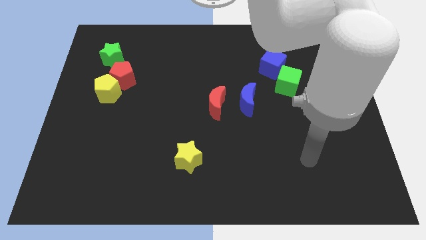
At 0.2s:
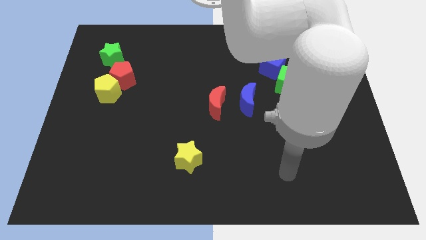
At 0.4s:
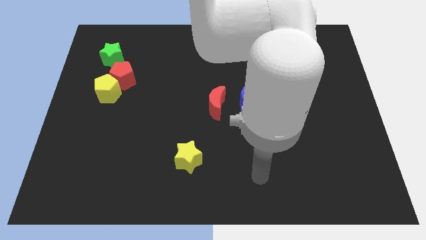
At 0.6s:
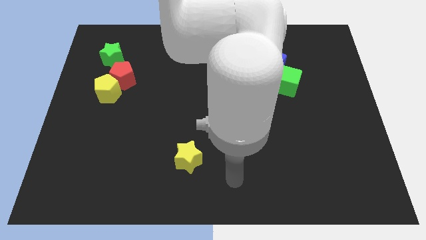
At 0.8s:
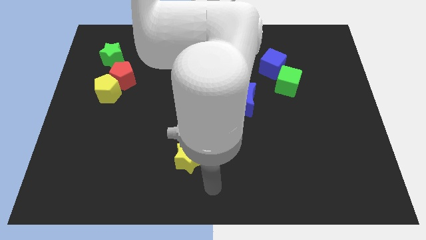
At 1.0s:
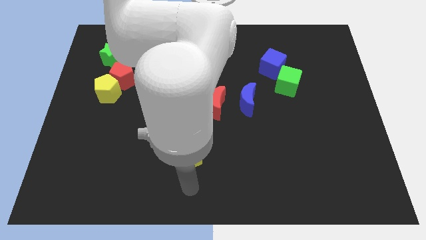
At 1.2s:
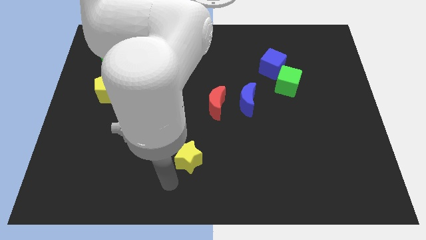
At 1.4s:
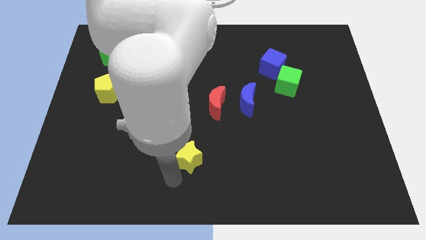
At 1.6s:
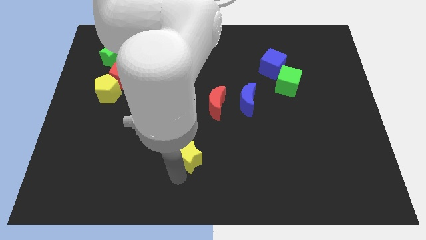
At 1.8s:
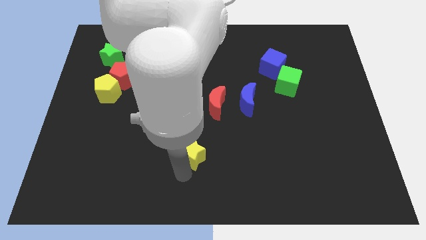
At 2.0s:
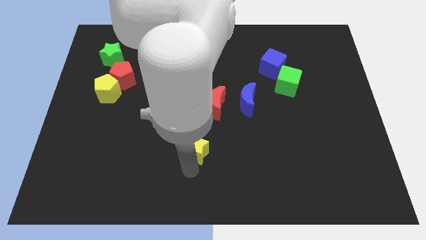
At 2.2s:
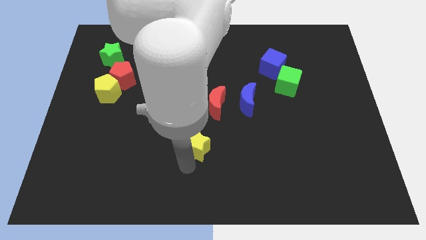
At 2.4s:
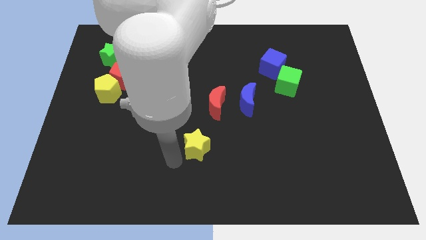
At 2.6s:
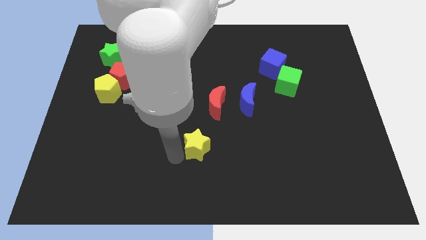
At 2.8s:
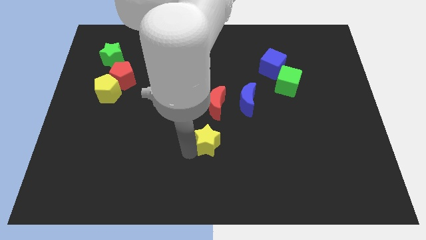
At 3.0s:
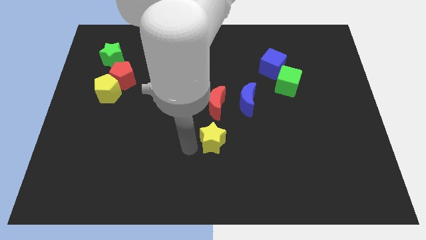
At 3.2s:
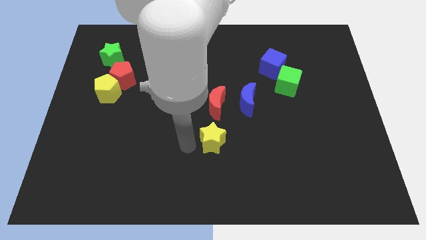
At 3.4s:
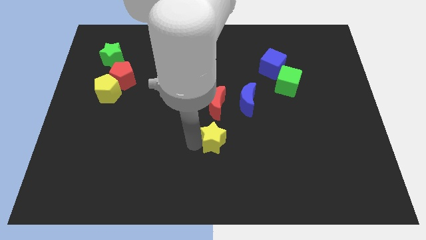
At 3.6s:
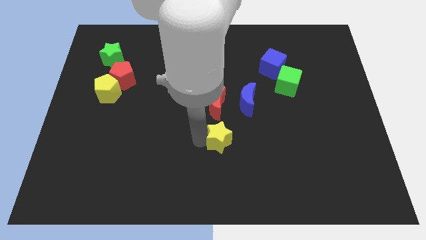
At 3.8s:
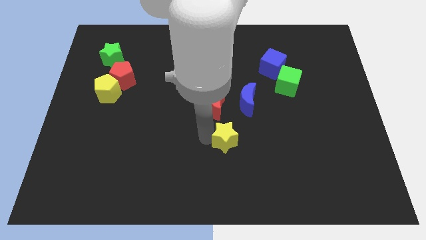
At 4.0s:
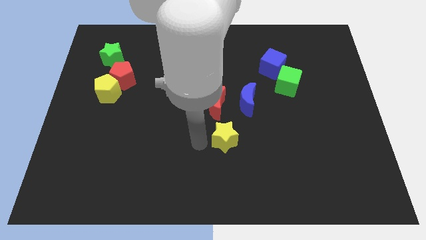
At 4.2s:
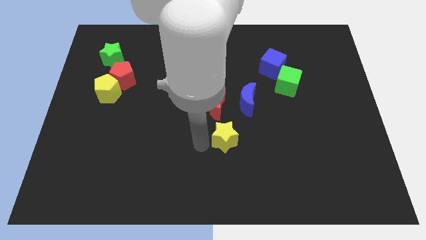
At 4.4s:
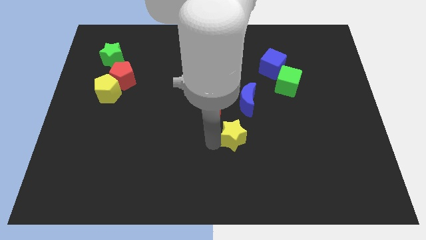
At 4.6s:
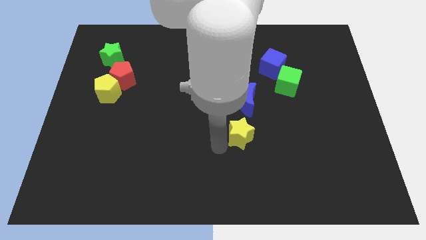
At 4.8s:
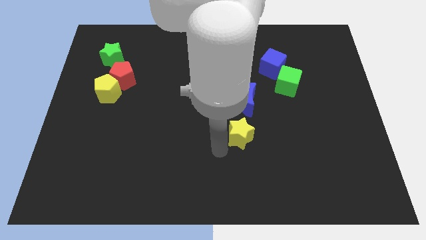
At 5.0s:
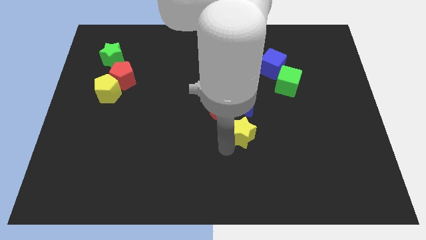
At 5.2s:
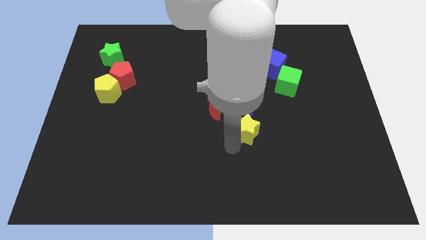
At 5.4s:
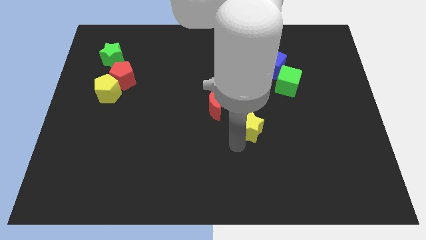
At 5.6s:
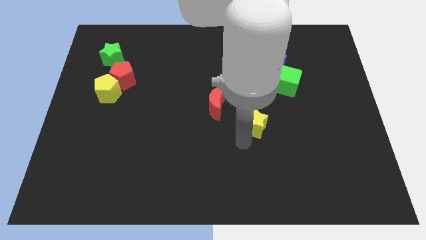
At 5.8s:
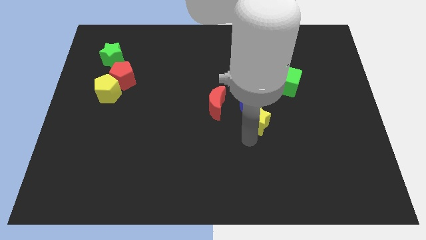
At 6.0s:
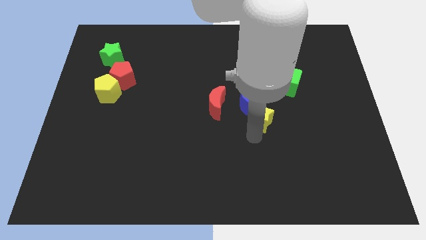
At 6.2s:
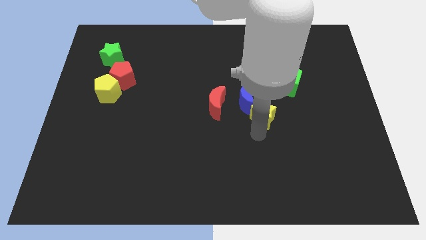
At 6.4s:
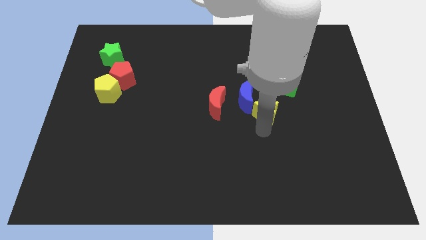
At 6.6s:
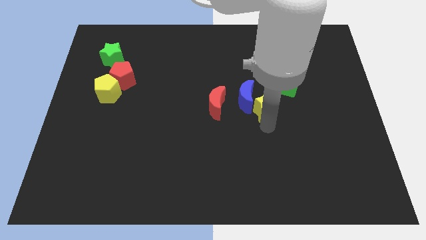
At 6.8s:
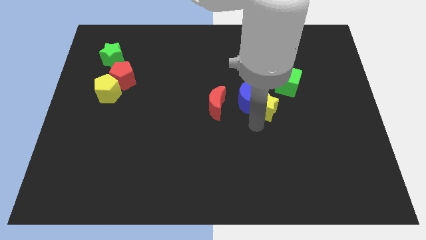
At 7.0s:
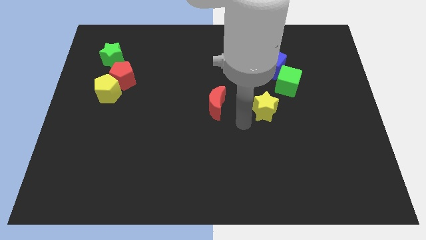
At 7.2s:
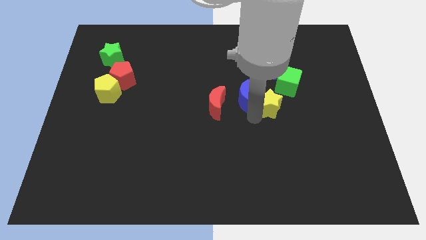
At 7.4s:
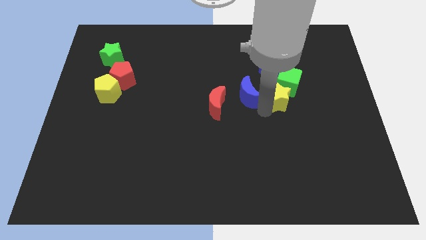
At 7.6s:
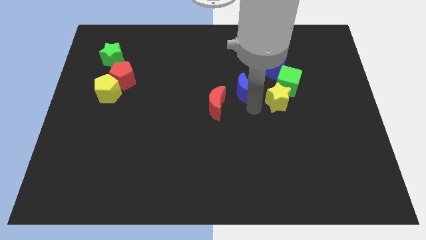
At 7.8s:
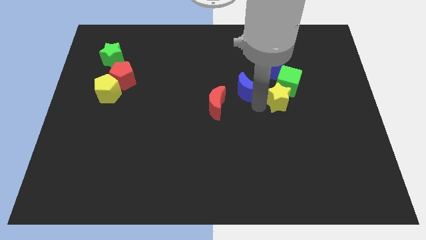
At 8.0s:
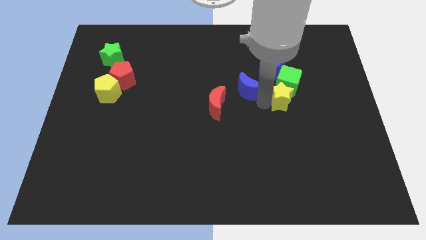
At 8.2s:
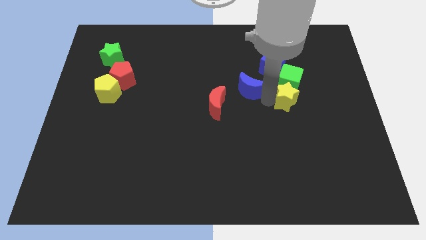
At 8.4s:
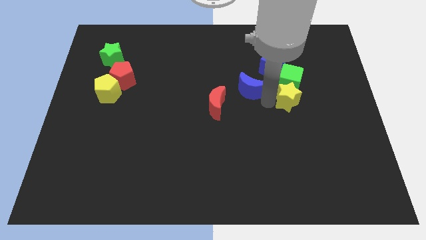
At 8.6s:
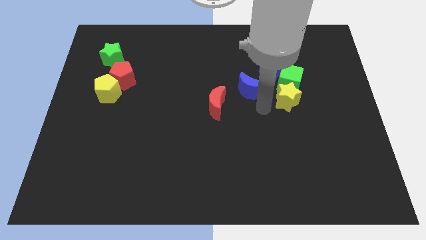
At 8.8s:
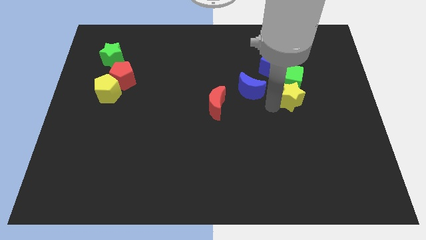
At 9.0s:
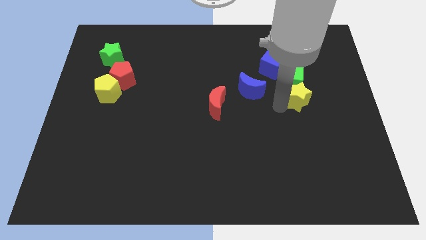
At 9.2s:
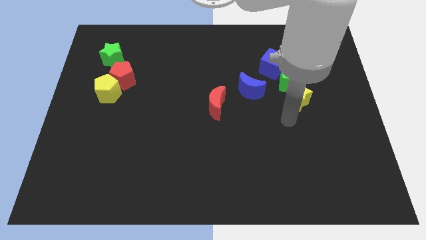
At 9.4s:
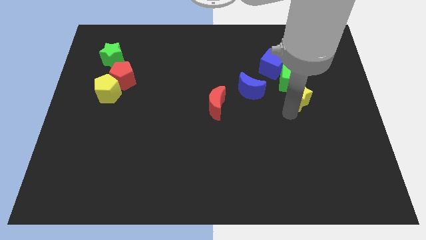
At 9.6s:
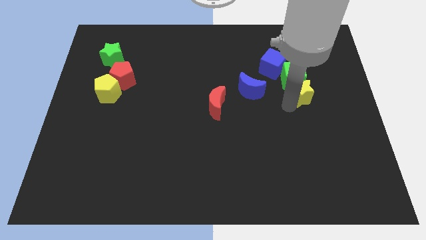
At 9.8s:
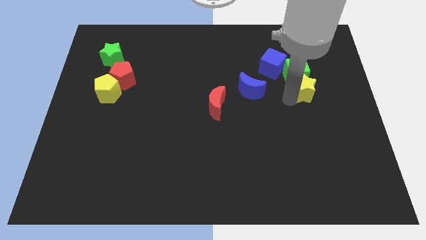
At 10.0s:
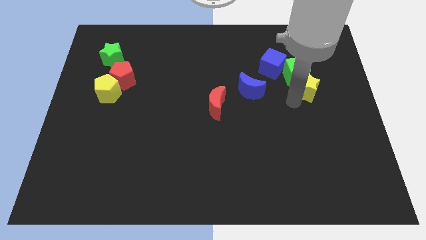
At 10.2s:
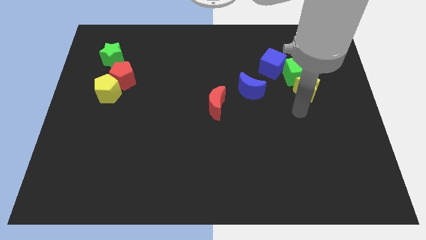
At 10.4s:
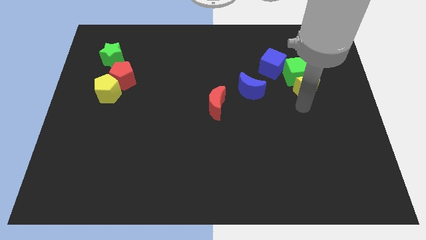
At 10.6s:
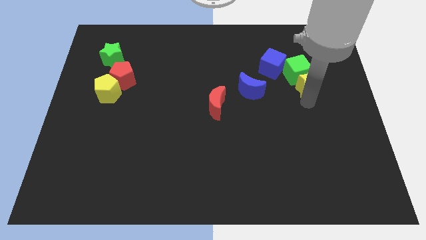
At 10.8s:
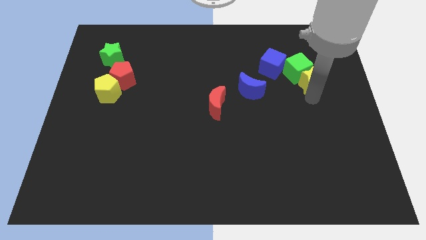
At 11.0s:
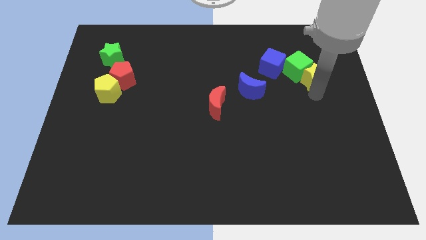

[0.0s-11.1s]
put the yellow star just right of the blue cube

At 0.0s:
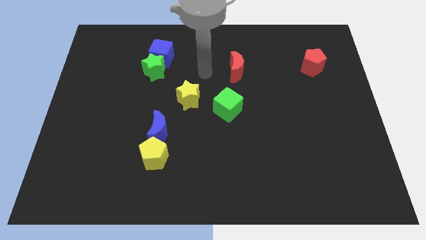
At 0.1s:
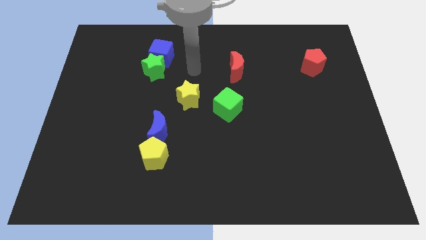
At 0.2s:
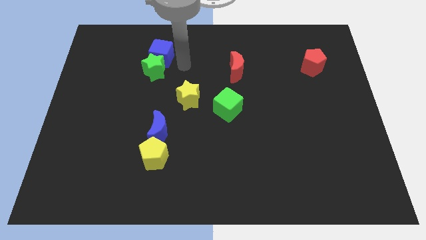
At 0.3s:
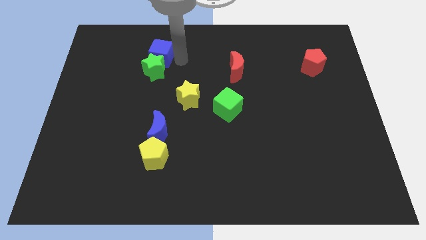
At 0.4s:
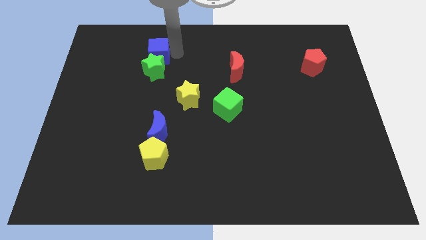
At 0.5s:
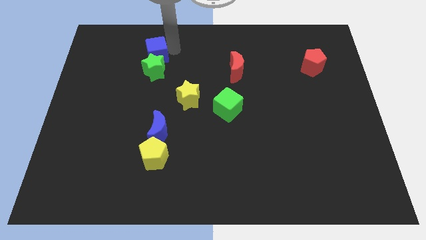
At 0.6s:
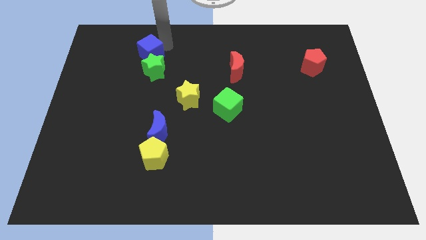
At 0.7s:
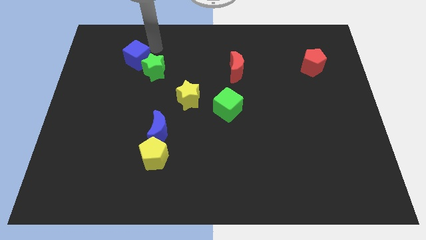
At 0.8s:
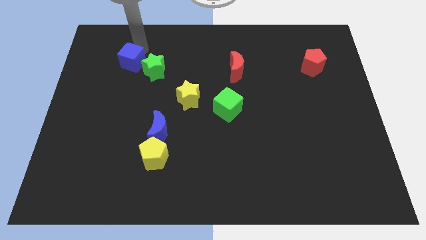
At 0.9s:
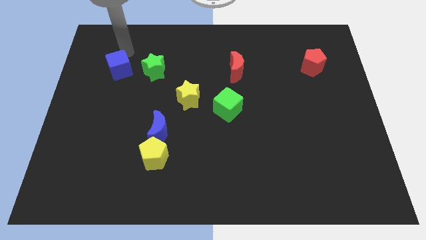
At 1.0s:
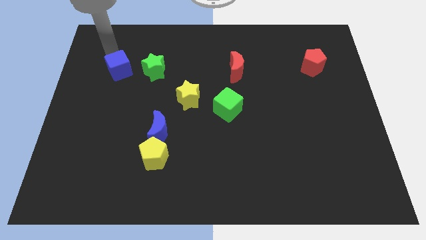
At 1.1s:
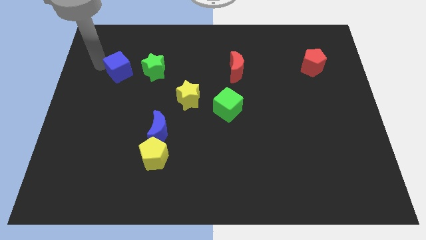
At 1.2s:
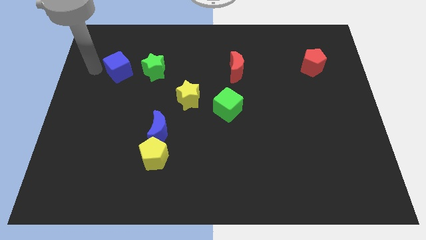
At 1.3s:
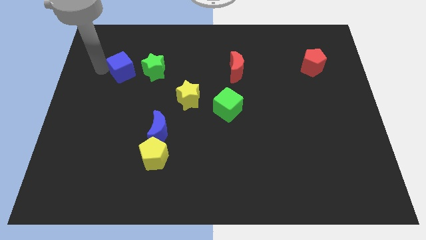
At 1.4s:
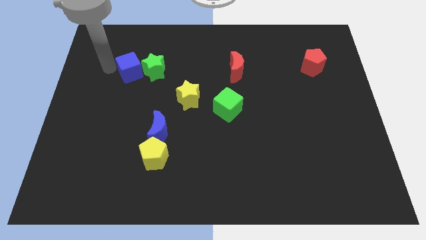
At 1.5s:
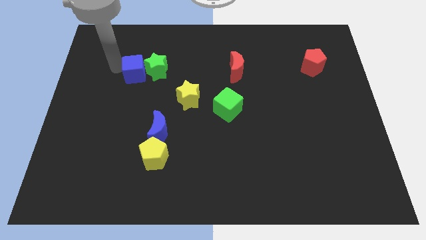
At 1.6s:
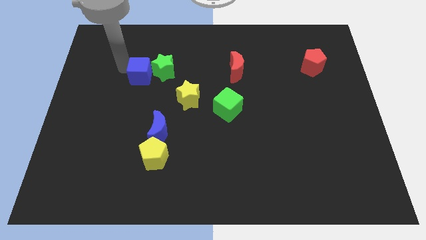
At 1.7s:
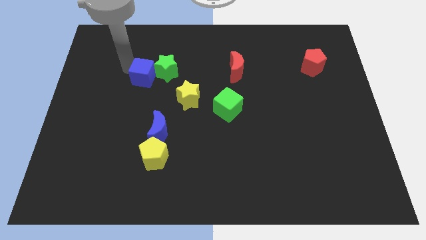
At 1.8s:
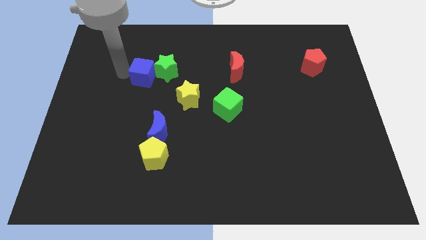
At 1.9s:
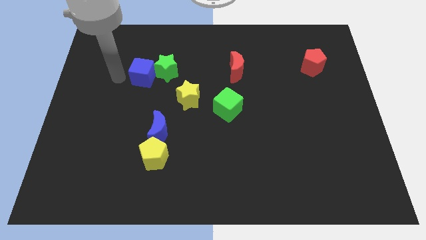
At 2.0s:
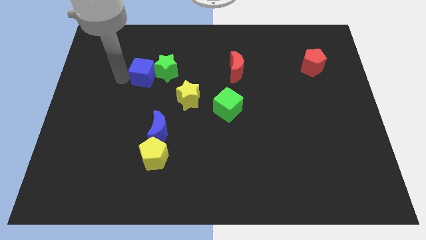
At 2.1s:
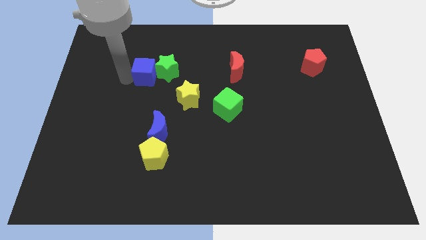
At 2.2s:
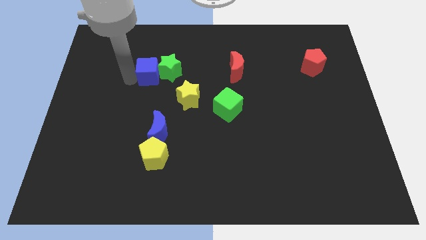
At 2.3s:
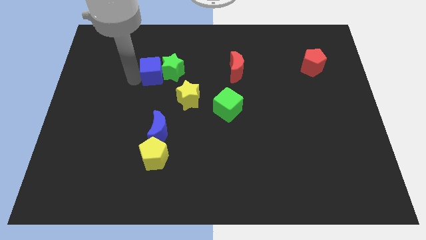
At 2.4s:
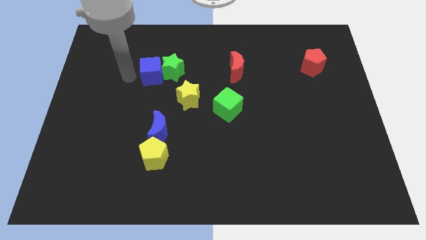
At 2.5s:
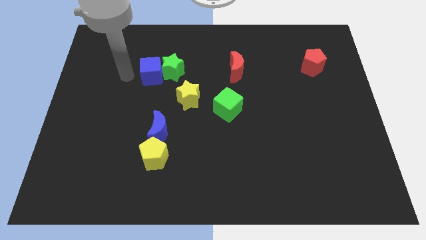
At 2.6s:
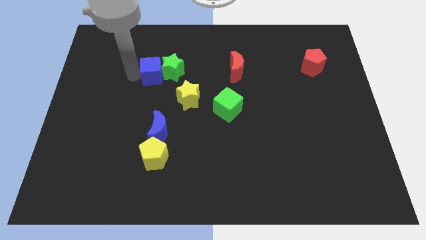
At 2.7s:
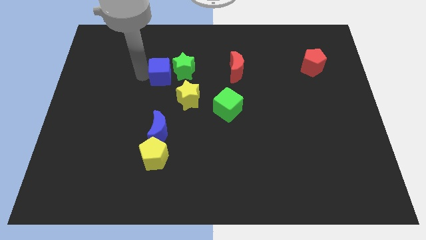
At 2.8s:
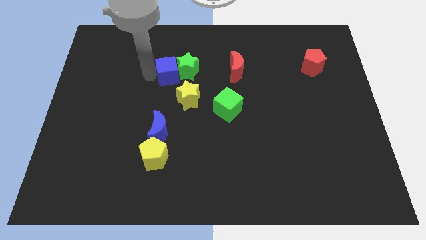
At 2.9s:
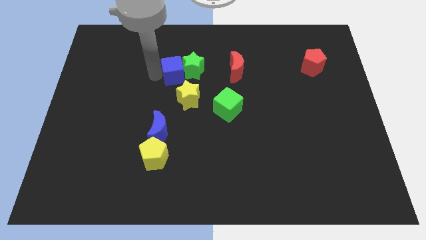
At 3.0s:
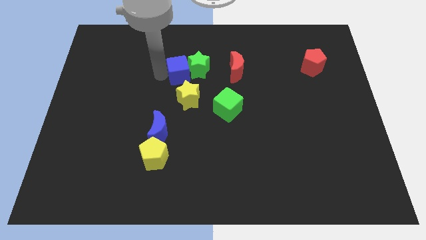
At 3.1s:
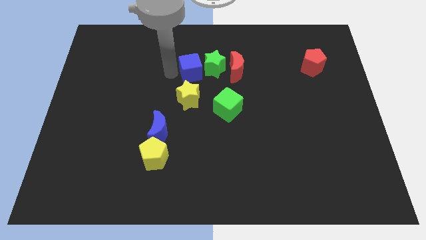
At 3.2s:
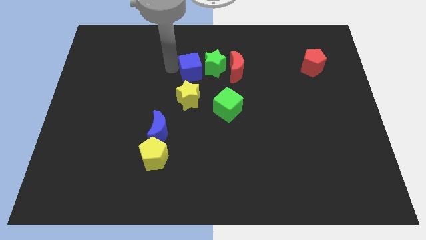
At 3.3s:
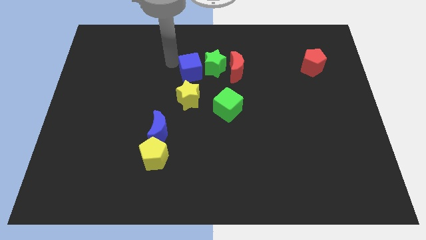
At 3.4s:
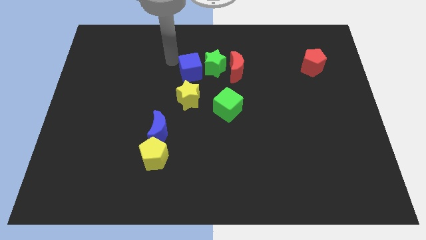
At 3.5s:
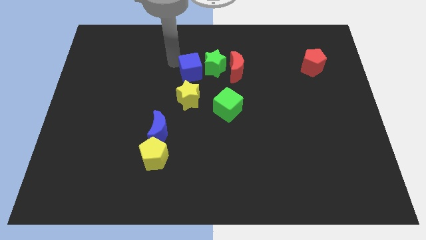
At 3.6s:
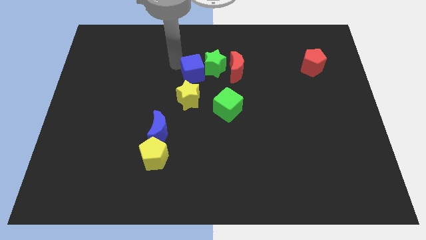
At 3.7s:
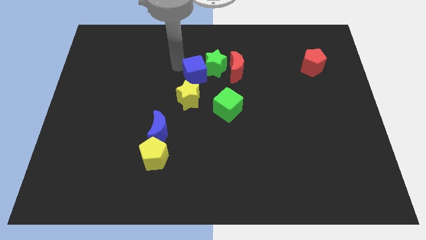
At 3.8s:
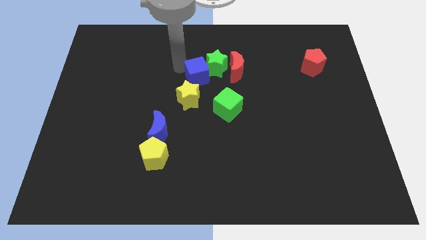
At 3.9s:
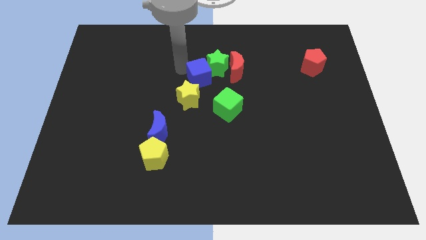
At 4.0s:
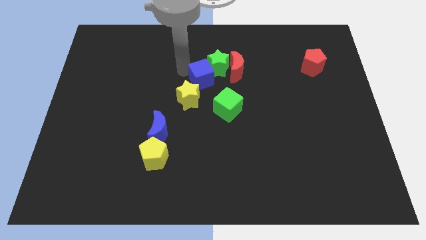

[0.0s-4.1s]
slide the blue cube diagonally down and to the left of the red moon
